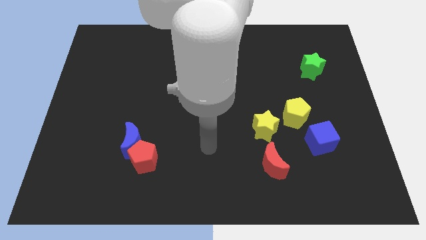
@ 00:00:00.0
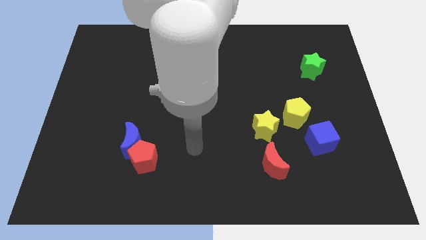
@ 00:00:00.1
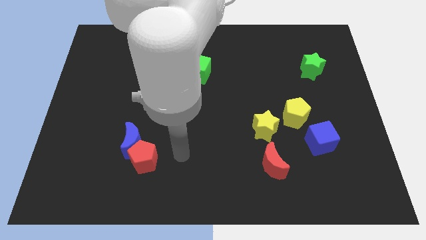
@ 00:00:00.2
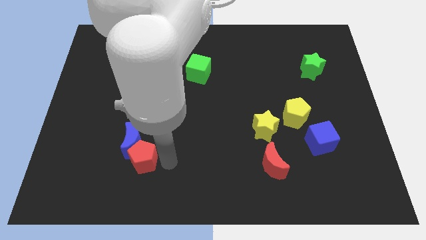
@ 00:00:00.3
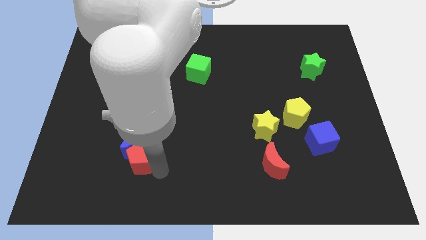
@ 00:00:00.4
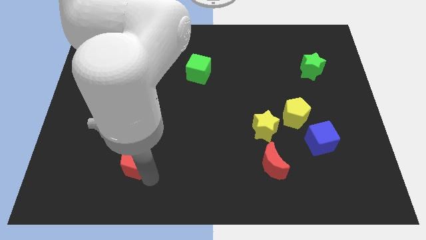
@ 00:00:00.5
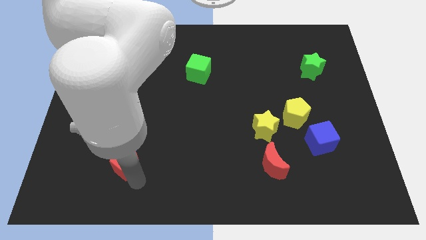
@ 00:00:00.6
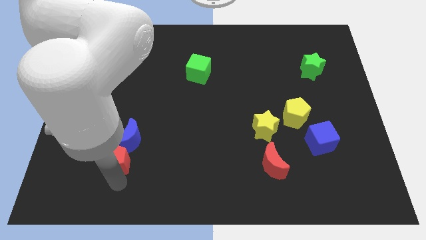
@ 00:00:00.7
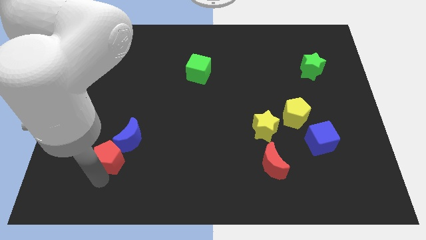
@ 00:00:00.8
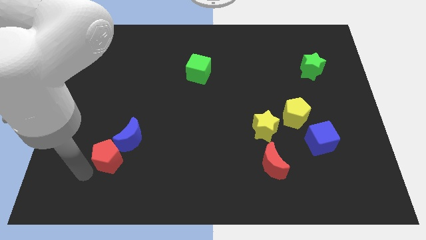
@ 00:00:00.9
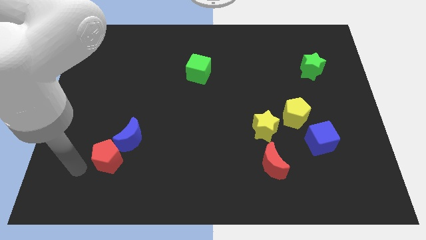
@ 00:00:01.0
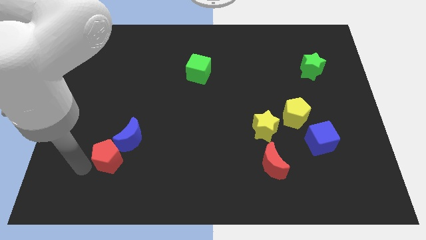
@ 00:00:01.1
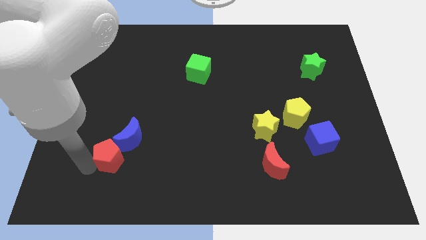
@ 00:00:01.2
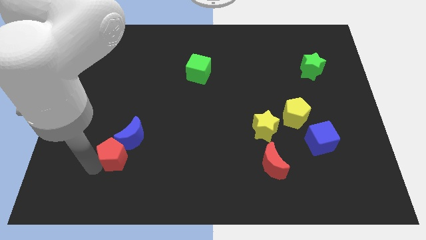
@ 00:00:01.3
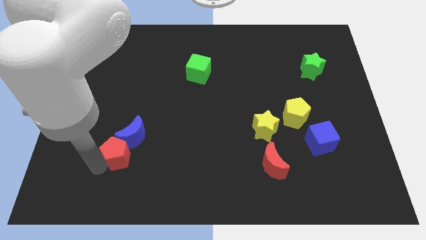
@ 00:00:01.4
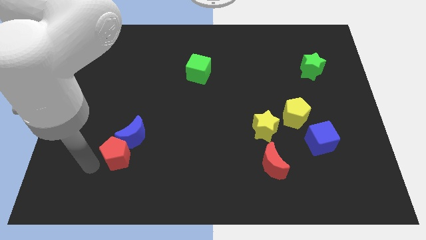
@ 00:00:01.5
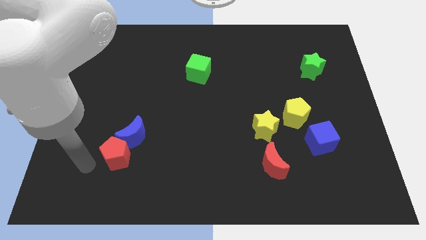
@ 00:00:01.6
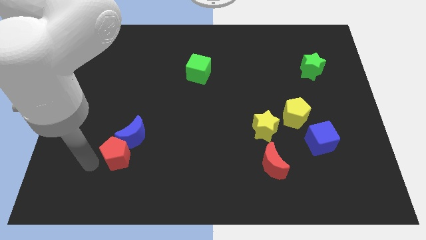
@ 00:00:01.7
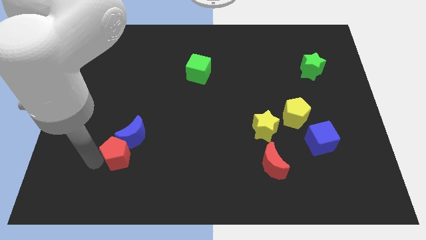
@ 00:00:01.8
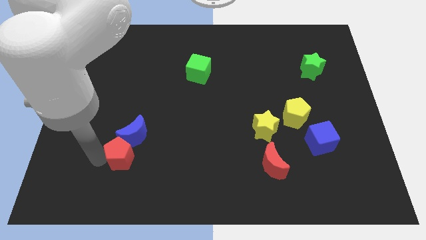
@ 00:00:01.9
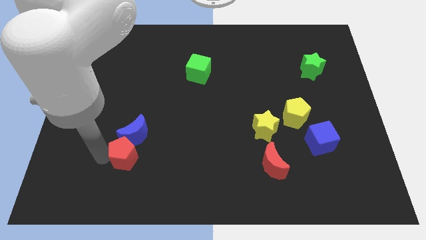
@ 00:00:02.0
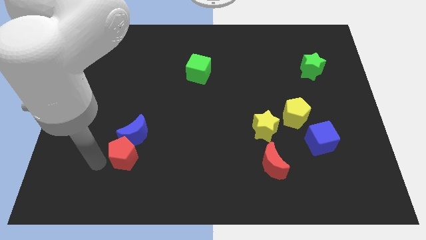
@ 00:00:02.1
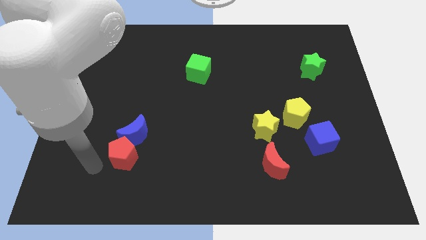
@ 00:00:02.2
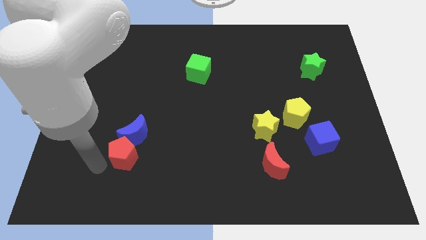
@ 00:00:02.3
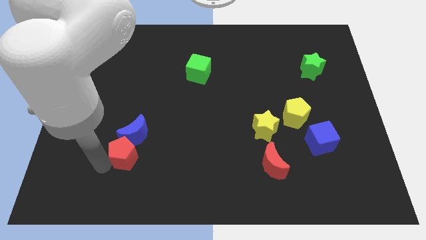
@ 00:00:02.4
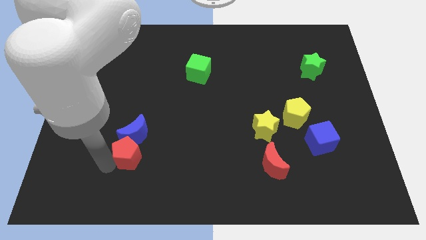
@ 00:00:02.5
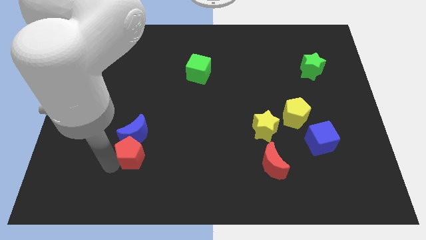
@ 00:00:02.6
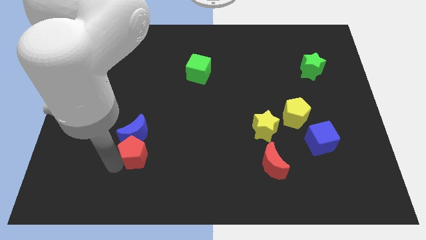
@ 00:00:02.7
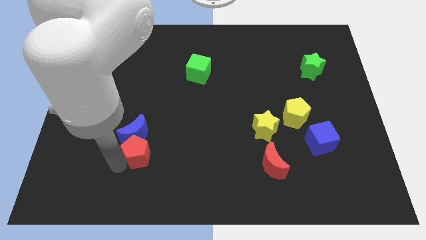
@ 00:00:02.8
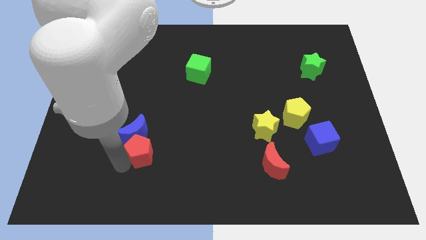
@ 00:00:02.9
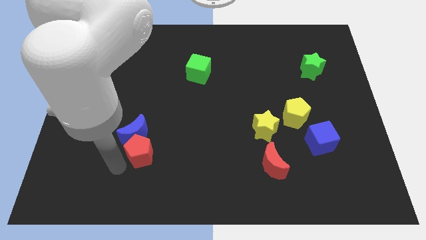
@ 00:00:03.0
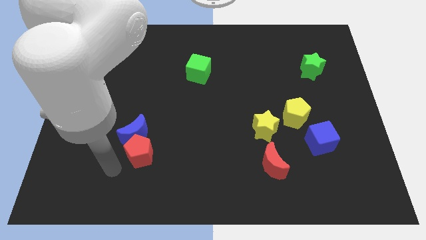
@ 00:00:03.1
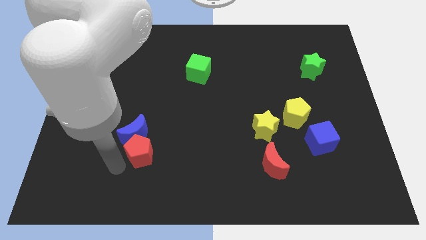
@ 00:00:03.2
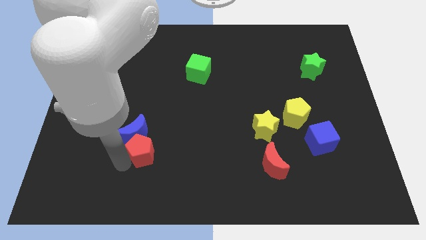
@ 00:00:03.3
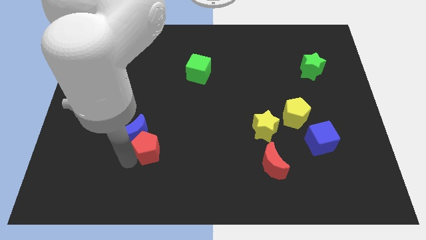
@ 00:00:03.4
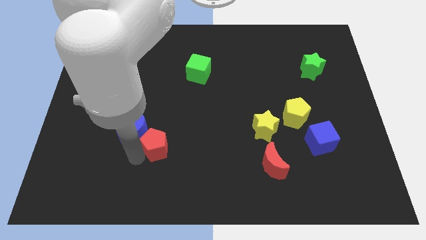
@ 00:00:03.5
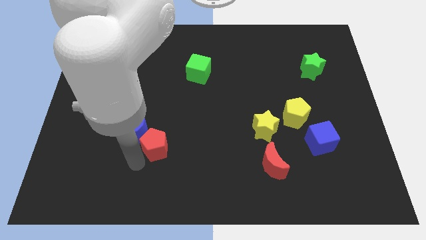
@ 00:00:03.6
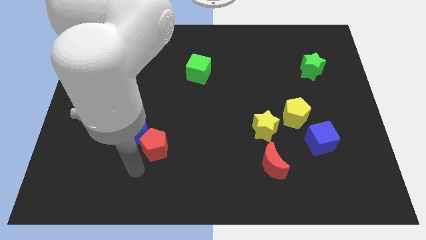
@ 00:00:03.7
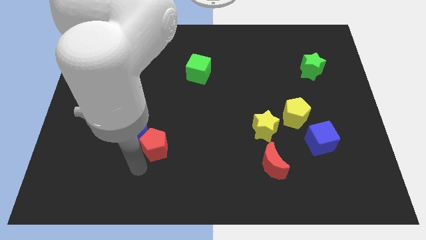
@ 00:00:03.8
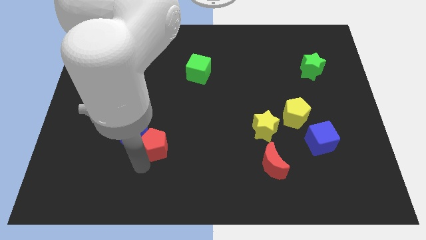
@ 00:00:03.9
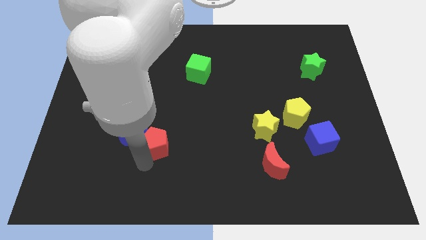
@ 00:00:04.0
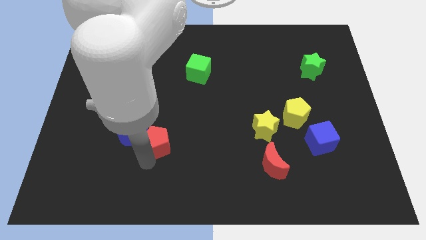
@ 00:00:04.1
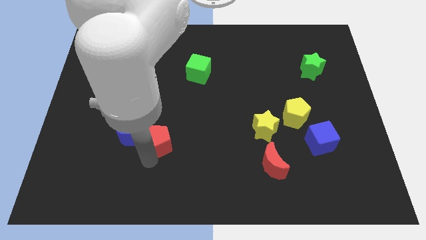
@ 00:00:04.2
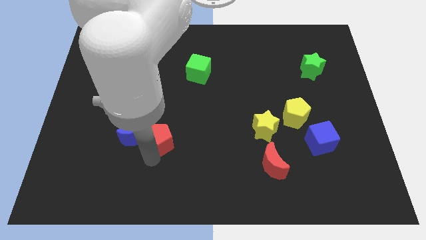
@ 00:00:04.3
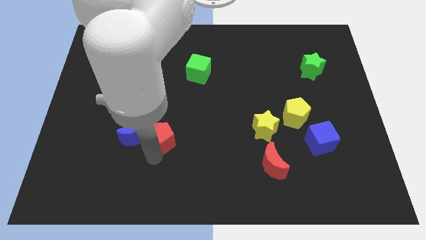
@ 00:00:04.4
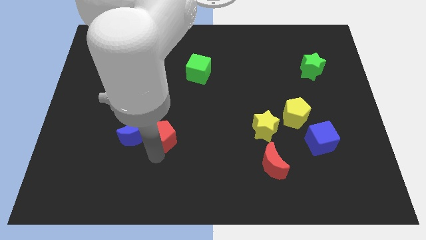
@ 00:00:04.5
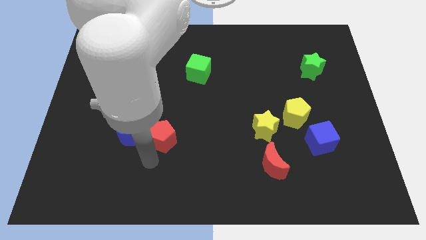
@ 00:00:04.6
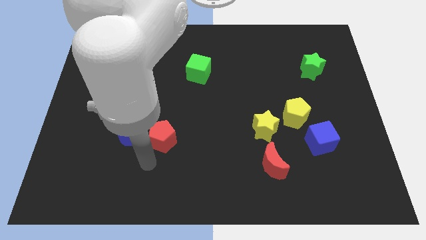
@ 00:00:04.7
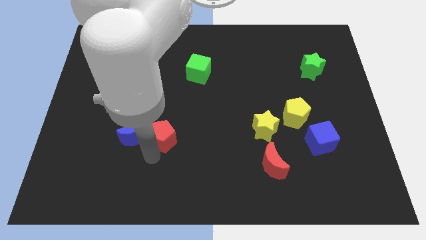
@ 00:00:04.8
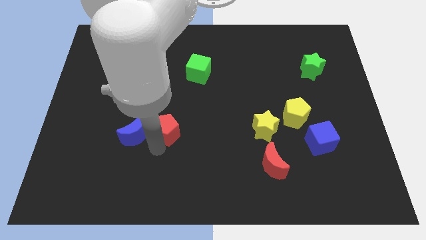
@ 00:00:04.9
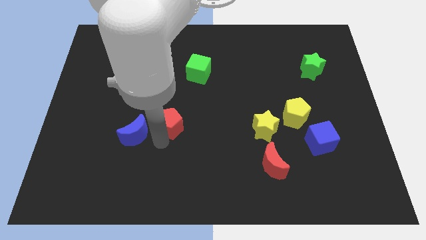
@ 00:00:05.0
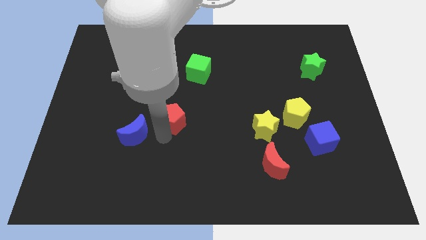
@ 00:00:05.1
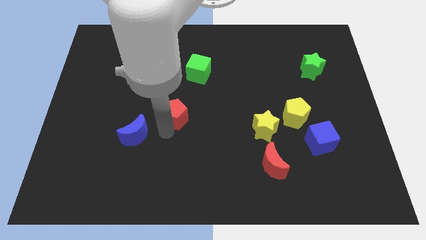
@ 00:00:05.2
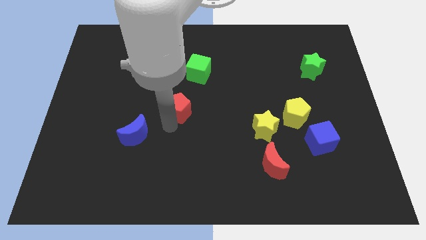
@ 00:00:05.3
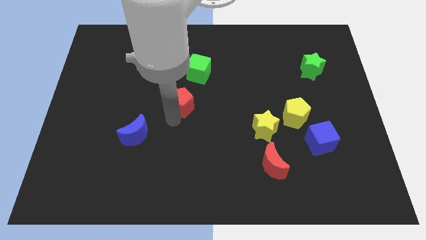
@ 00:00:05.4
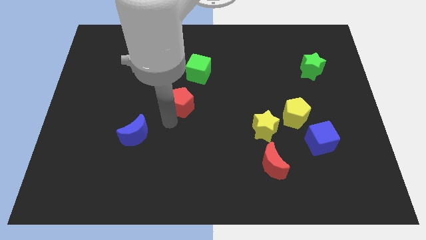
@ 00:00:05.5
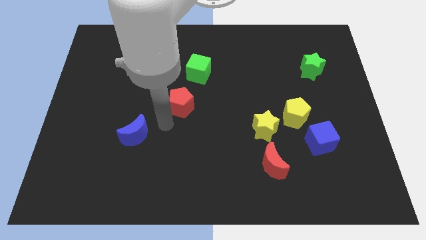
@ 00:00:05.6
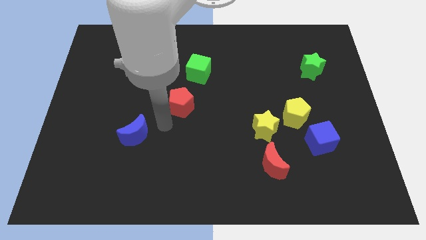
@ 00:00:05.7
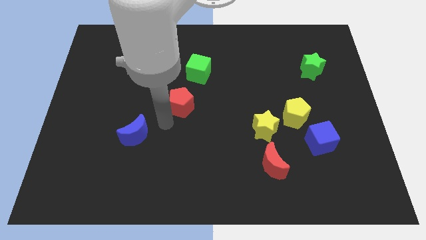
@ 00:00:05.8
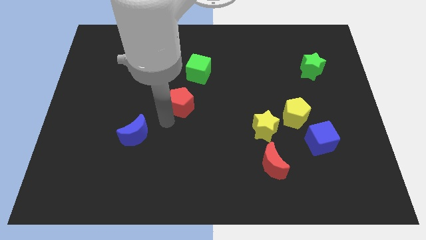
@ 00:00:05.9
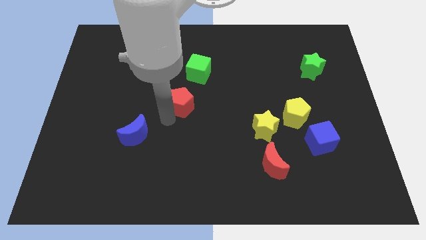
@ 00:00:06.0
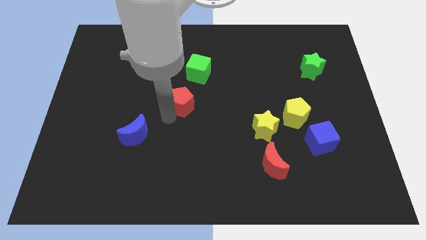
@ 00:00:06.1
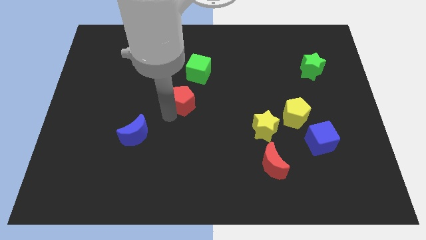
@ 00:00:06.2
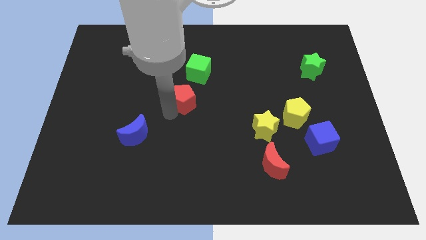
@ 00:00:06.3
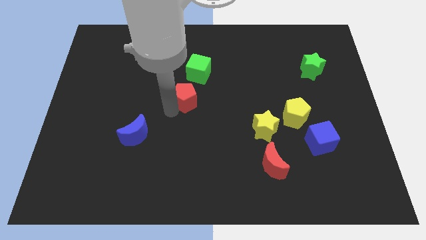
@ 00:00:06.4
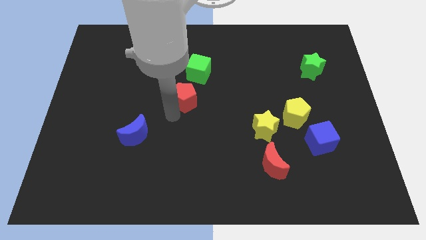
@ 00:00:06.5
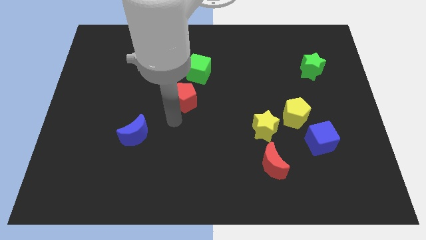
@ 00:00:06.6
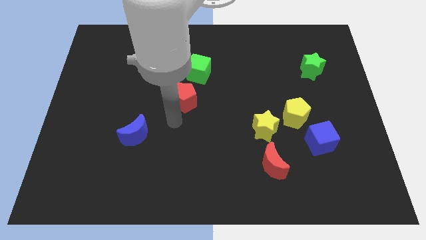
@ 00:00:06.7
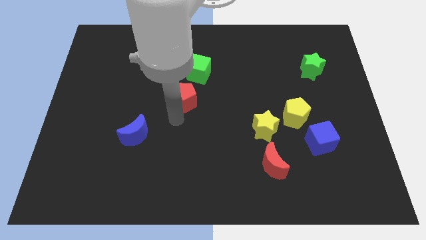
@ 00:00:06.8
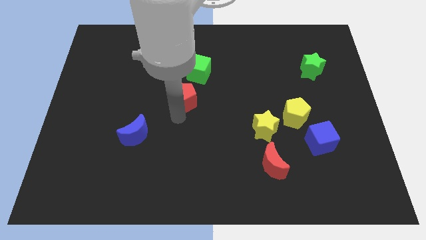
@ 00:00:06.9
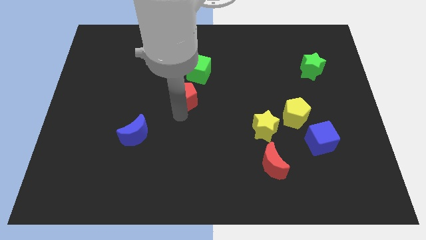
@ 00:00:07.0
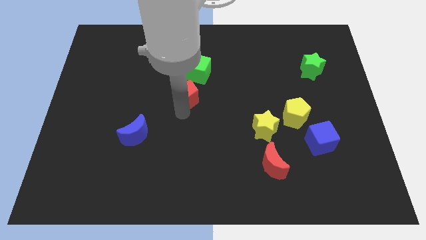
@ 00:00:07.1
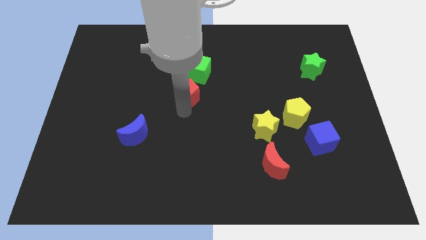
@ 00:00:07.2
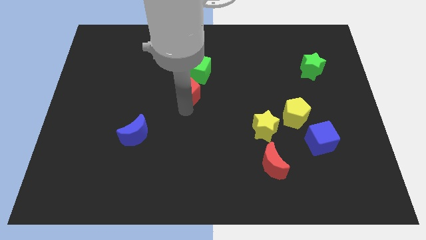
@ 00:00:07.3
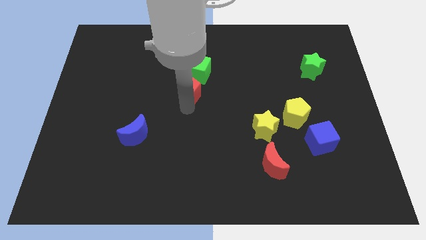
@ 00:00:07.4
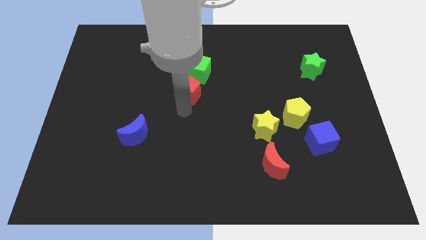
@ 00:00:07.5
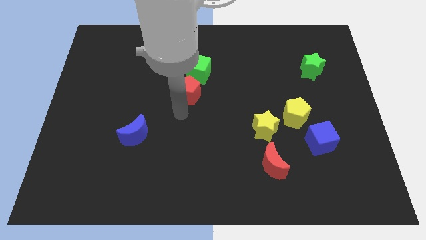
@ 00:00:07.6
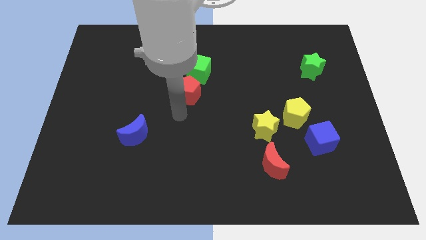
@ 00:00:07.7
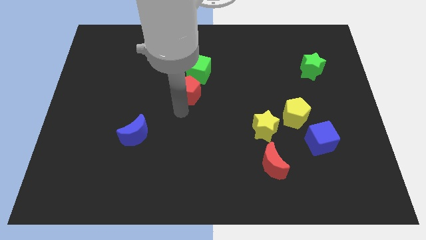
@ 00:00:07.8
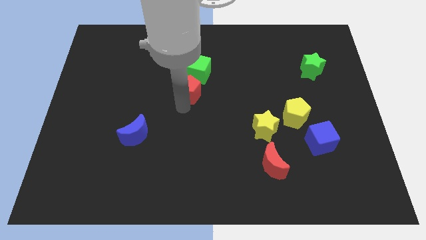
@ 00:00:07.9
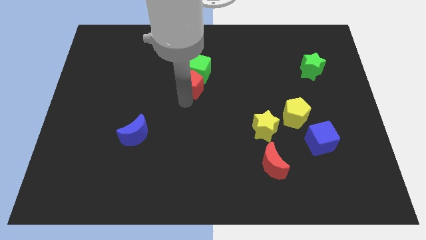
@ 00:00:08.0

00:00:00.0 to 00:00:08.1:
move the red pentagon next to the green cube
